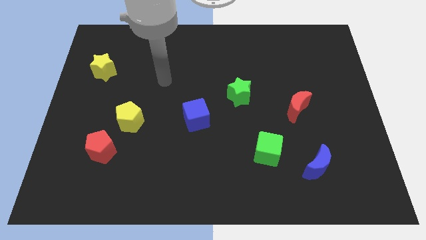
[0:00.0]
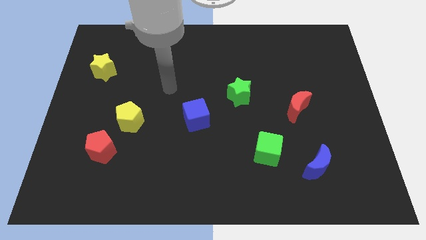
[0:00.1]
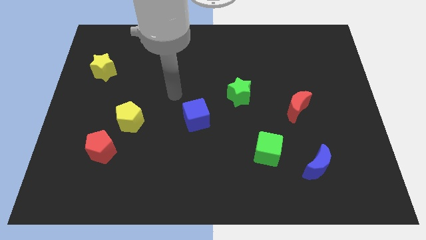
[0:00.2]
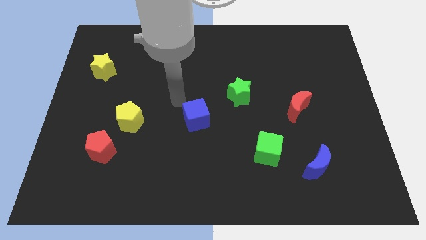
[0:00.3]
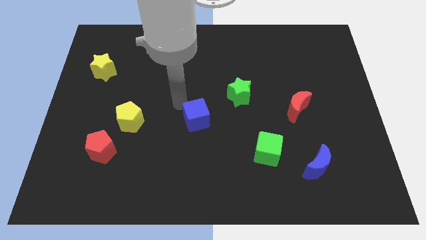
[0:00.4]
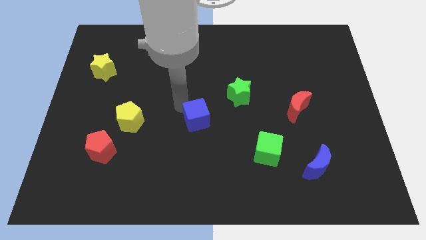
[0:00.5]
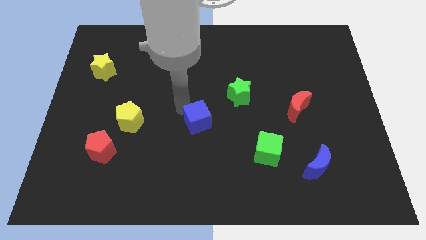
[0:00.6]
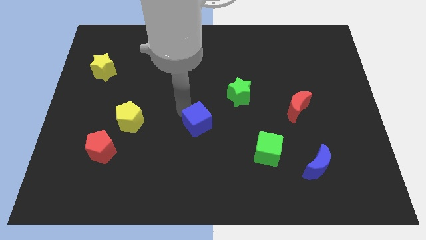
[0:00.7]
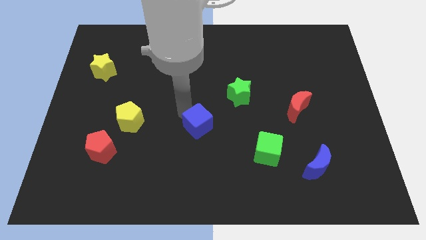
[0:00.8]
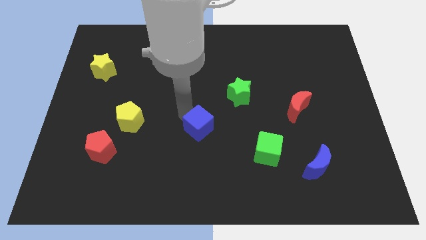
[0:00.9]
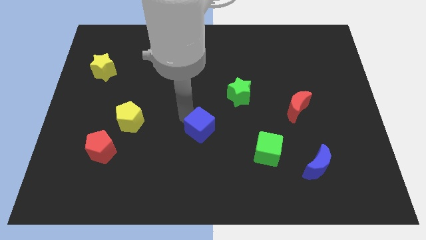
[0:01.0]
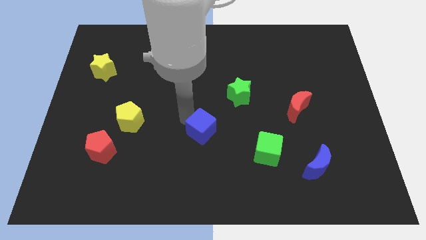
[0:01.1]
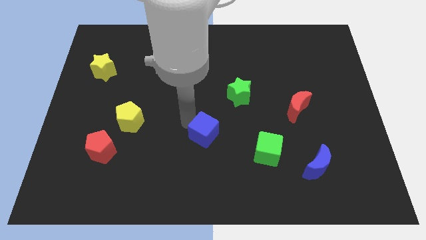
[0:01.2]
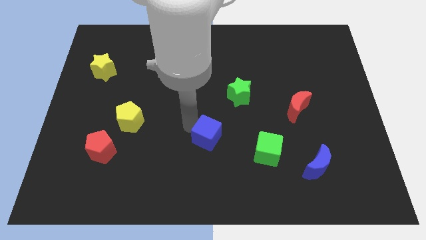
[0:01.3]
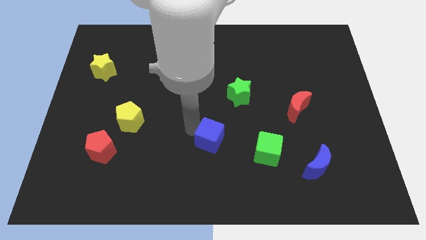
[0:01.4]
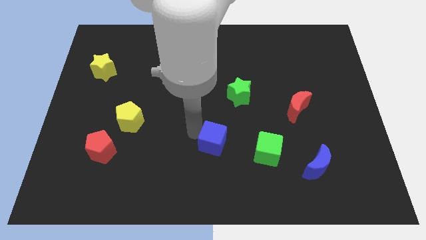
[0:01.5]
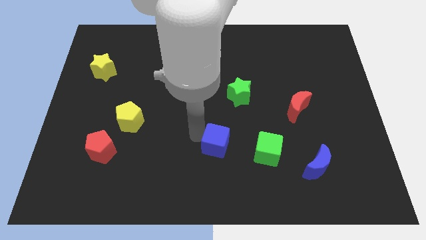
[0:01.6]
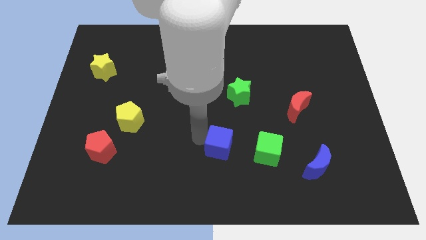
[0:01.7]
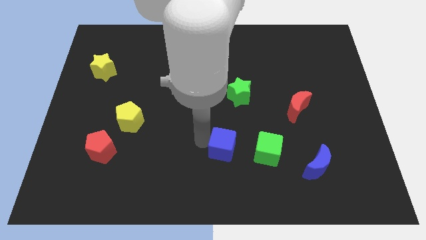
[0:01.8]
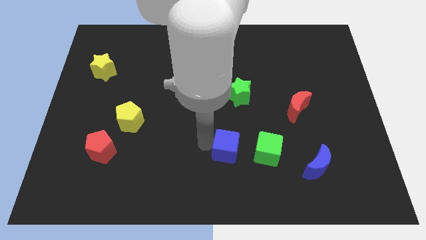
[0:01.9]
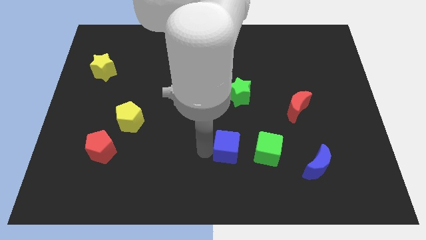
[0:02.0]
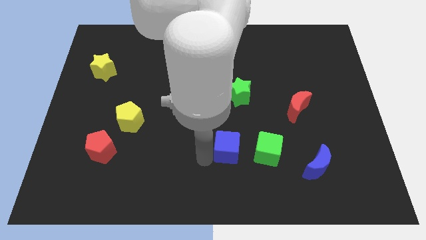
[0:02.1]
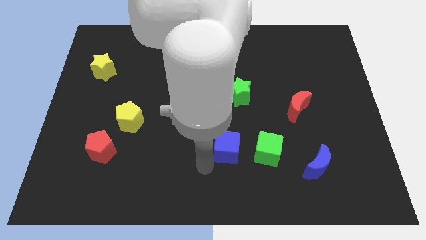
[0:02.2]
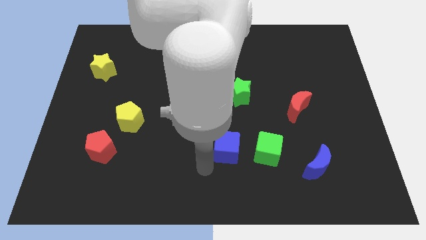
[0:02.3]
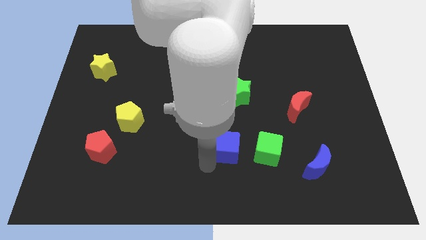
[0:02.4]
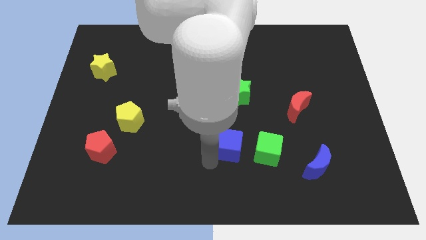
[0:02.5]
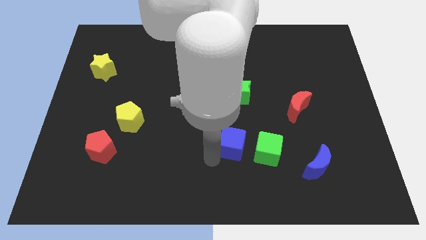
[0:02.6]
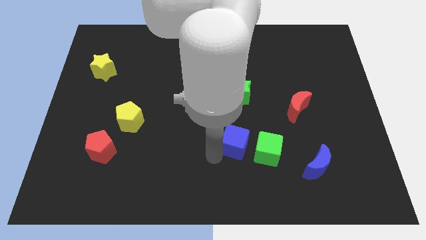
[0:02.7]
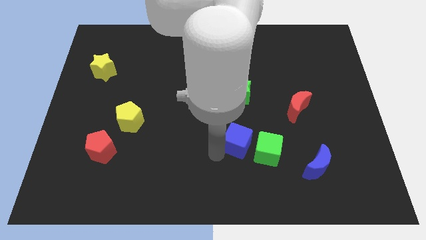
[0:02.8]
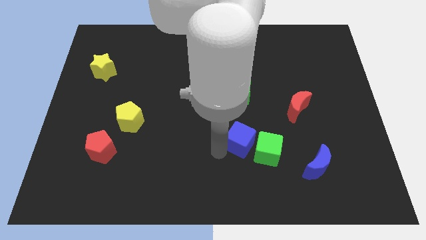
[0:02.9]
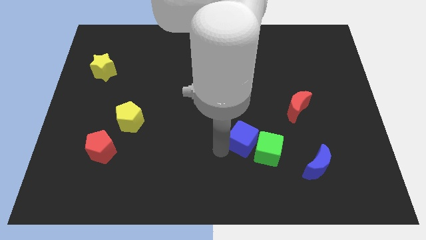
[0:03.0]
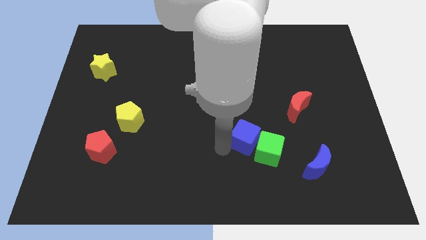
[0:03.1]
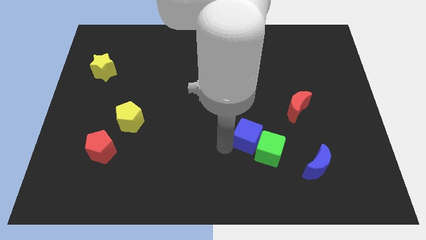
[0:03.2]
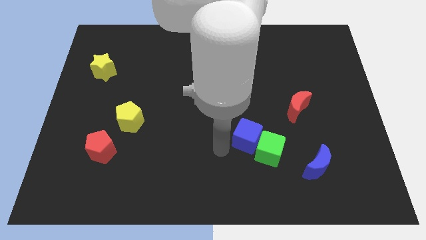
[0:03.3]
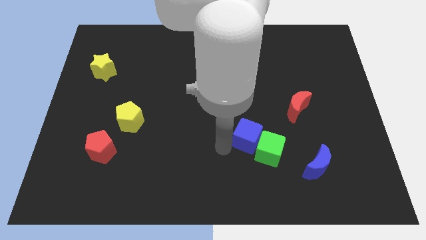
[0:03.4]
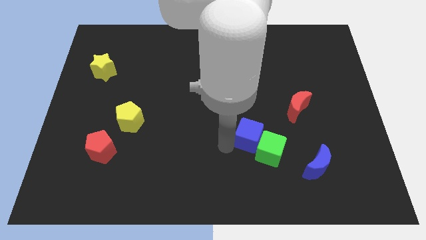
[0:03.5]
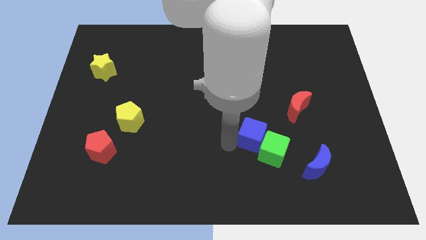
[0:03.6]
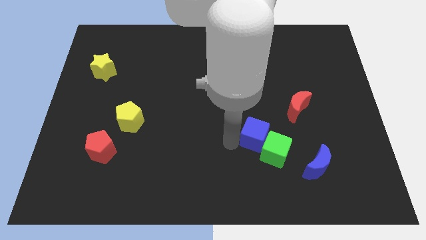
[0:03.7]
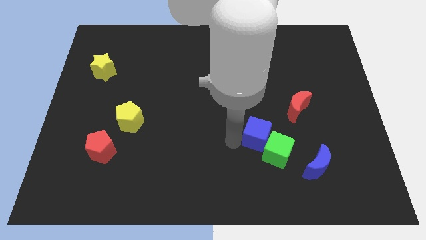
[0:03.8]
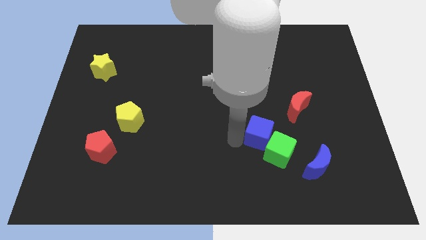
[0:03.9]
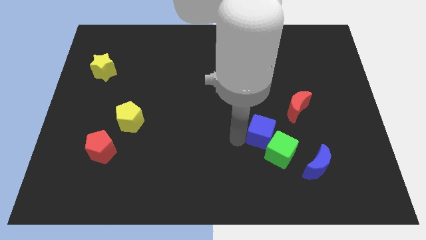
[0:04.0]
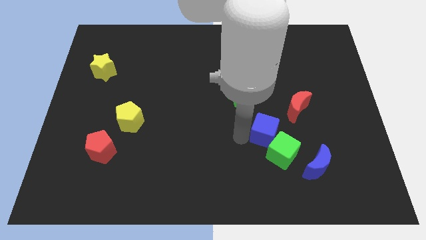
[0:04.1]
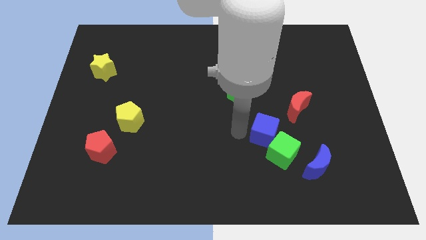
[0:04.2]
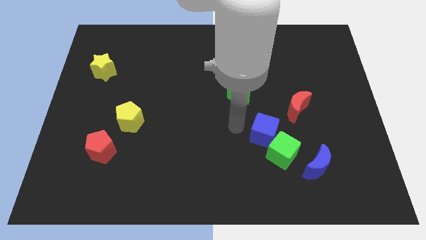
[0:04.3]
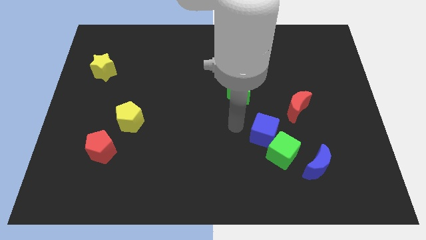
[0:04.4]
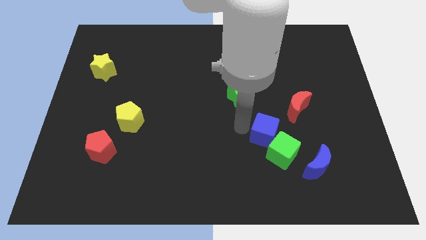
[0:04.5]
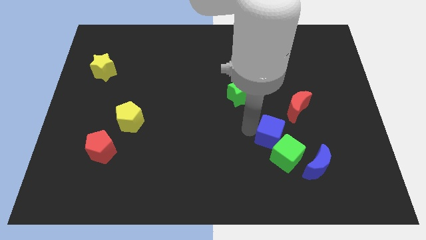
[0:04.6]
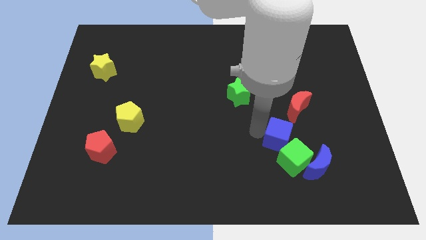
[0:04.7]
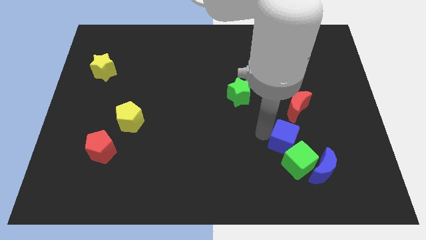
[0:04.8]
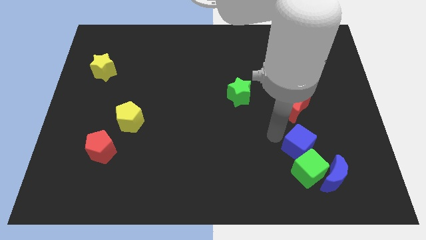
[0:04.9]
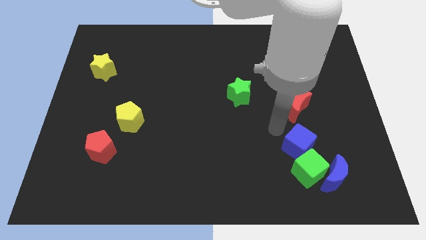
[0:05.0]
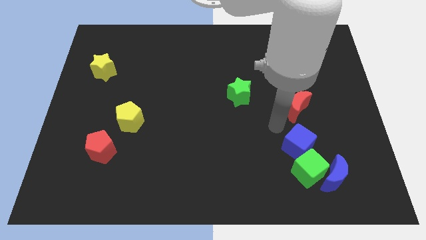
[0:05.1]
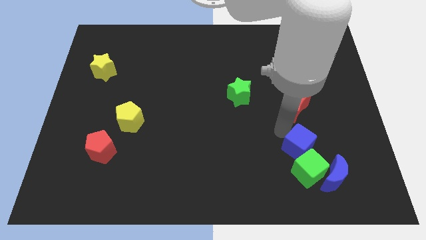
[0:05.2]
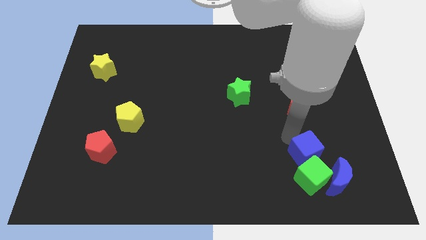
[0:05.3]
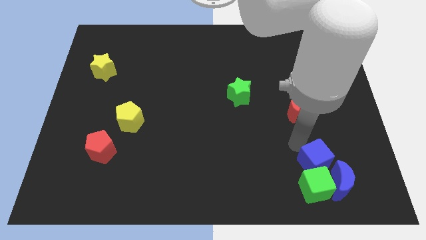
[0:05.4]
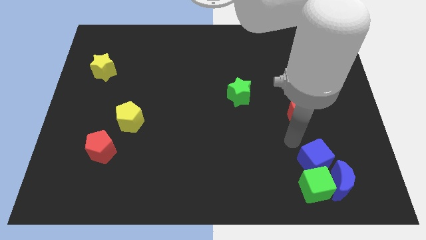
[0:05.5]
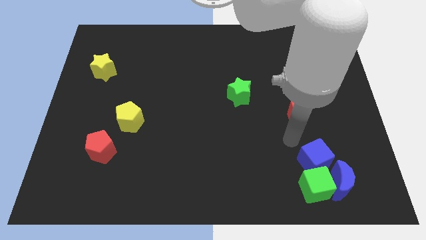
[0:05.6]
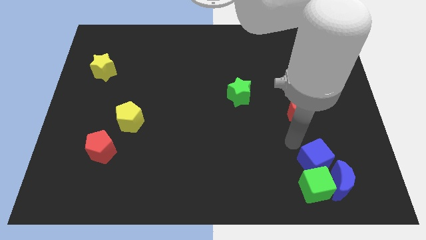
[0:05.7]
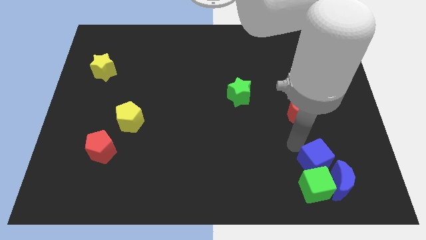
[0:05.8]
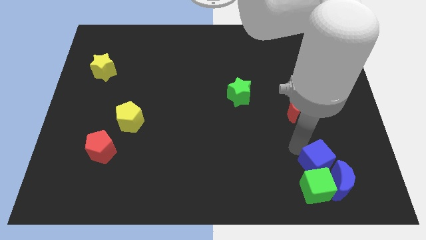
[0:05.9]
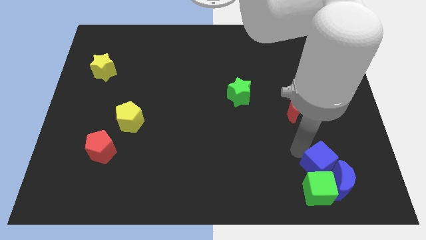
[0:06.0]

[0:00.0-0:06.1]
put the blue cube to the blue moon
